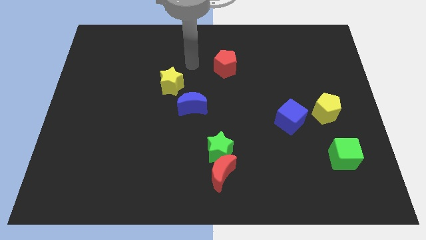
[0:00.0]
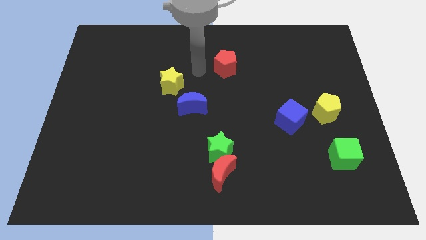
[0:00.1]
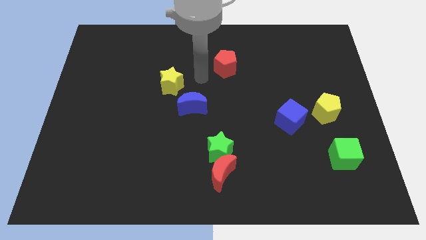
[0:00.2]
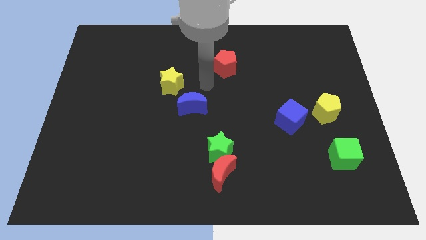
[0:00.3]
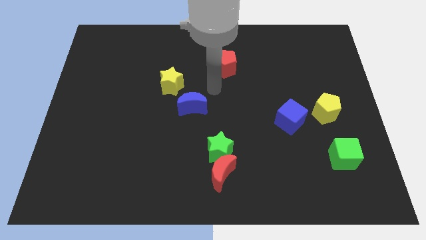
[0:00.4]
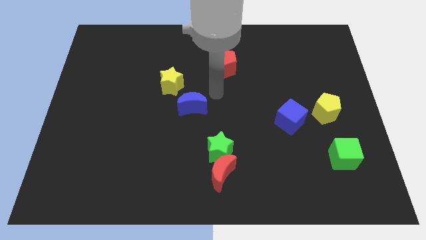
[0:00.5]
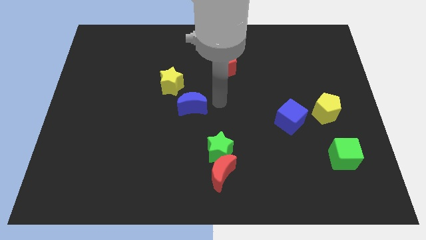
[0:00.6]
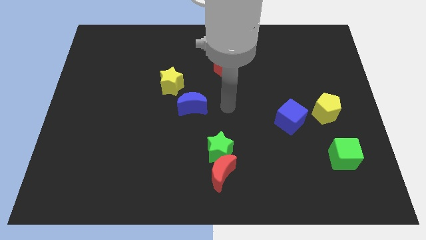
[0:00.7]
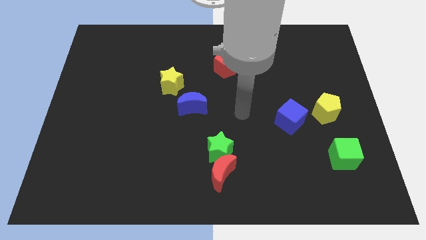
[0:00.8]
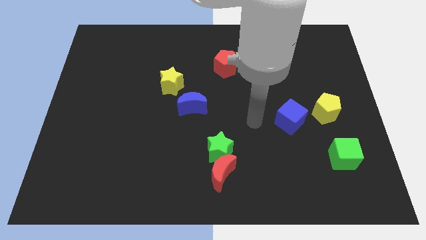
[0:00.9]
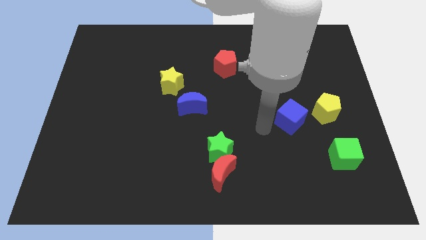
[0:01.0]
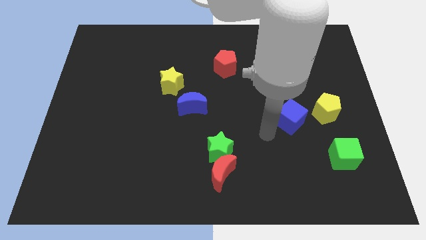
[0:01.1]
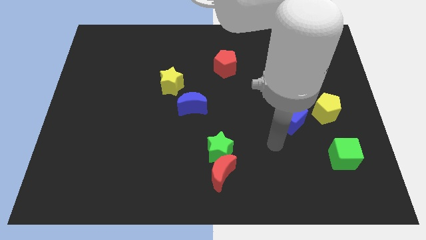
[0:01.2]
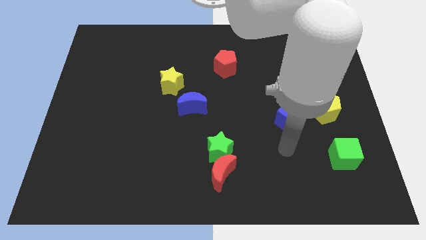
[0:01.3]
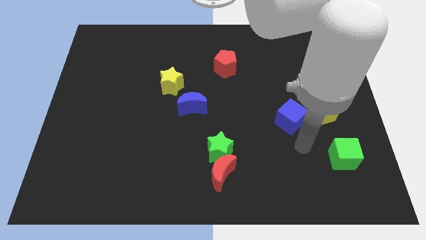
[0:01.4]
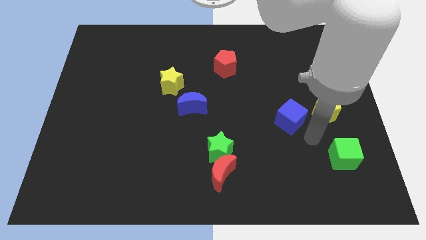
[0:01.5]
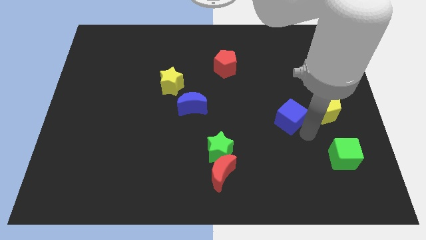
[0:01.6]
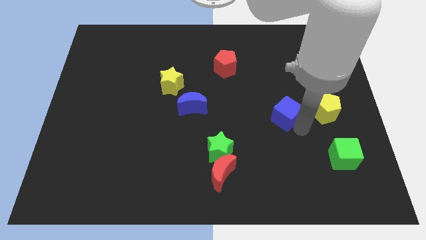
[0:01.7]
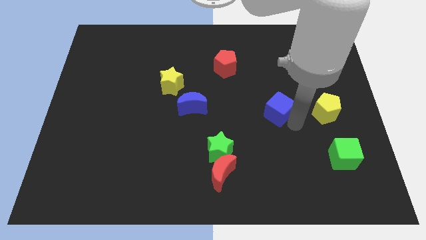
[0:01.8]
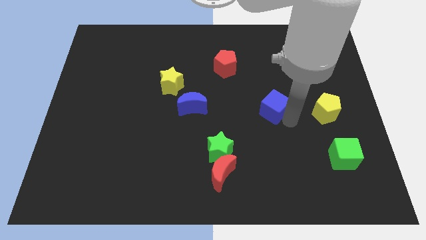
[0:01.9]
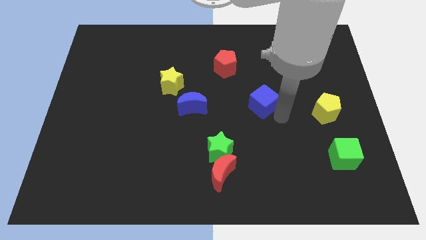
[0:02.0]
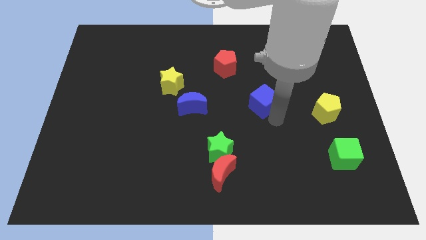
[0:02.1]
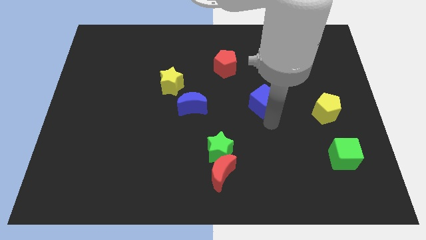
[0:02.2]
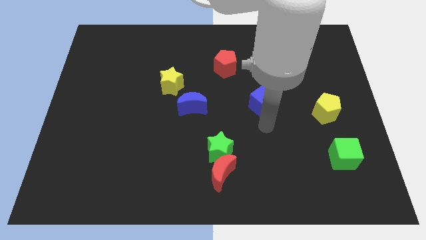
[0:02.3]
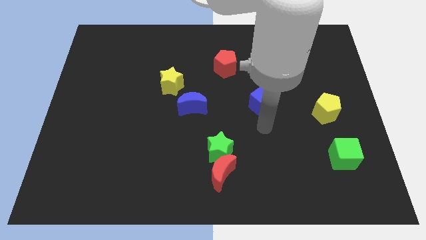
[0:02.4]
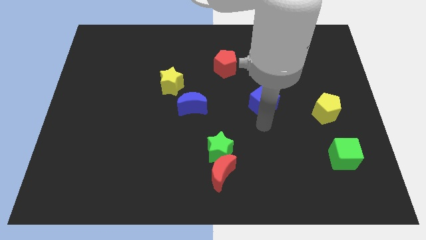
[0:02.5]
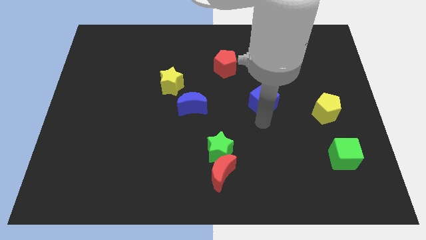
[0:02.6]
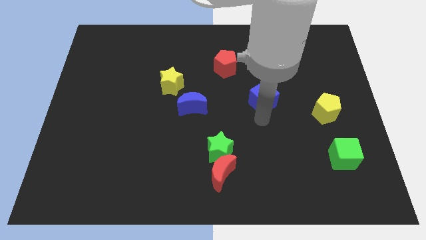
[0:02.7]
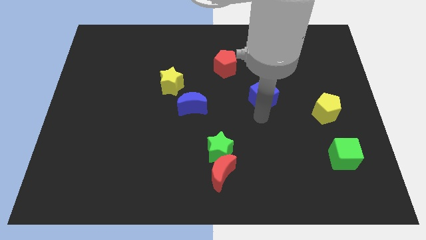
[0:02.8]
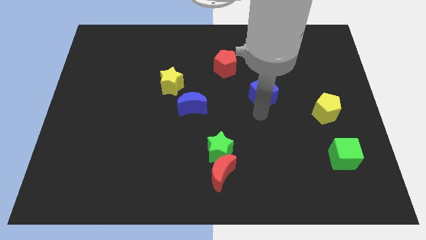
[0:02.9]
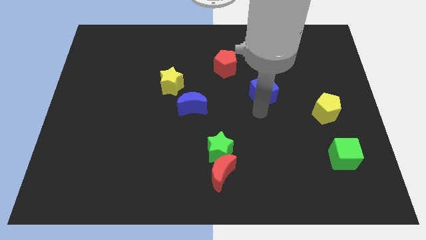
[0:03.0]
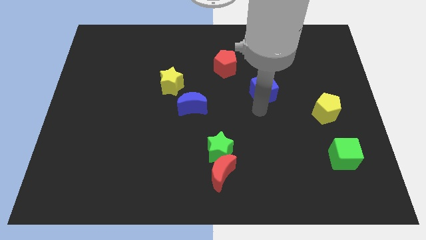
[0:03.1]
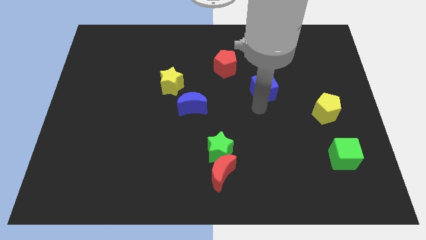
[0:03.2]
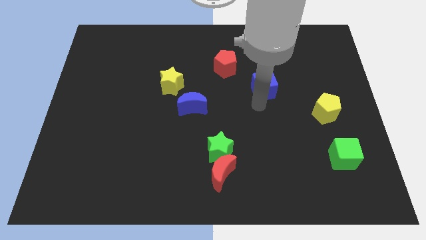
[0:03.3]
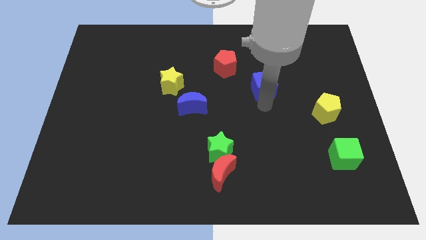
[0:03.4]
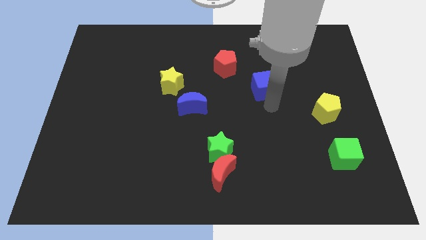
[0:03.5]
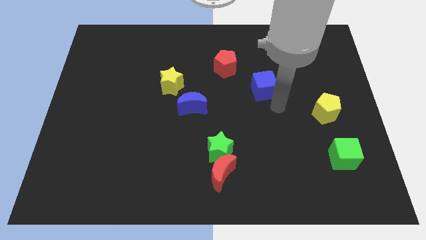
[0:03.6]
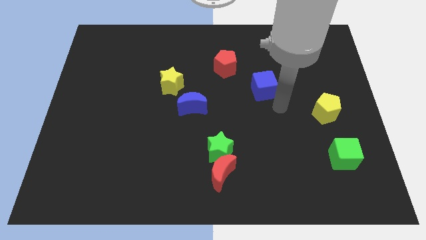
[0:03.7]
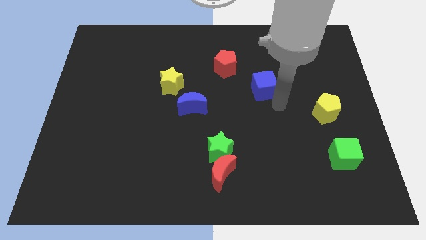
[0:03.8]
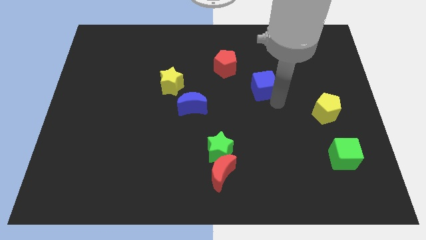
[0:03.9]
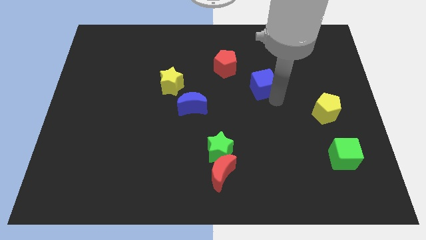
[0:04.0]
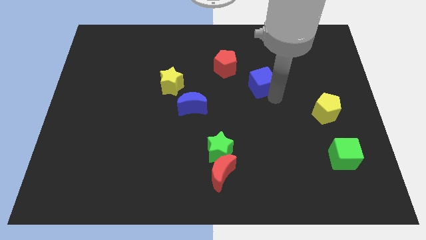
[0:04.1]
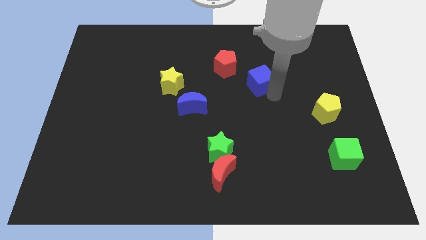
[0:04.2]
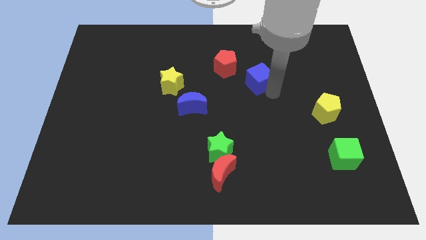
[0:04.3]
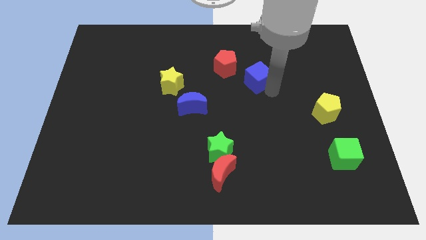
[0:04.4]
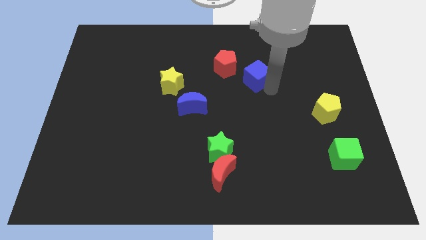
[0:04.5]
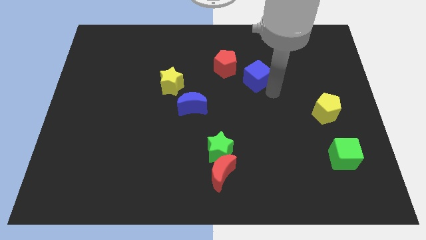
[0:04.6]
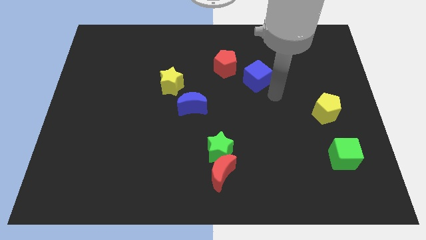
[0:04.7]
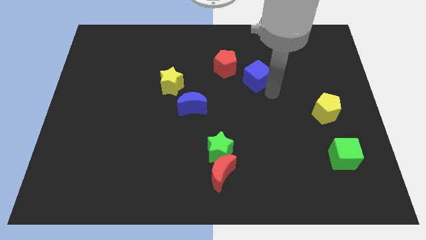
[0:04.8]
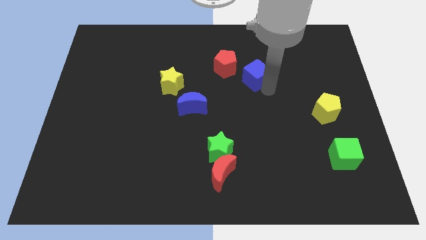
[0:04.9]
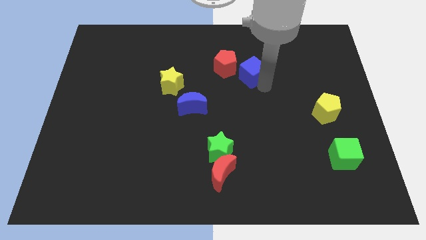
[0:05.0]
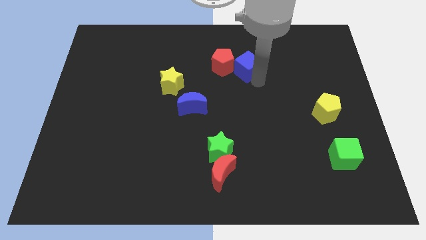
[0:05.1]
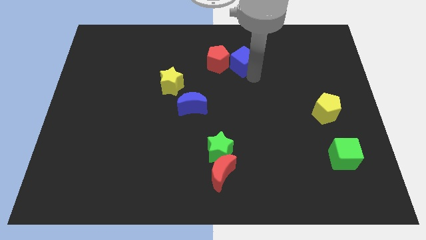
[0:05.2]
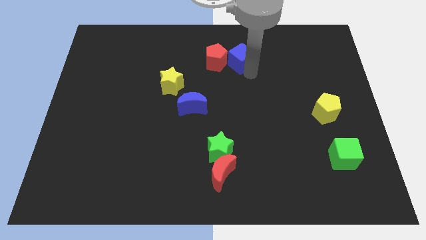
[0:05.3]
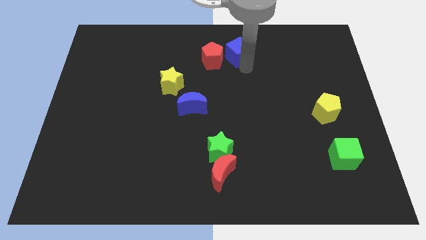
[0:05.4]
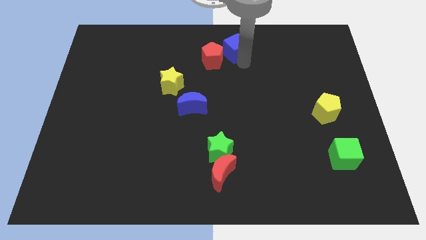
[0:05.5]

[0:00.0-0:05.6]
put the blue cube to the top side
